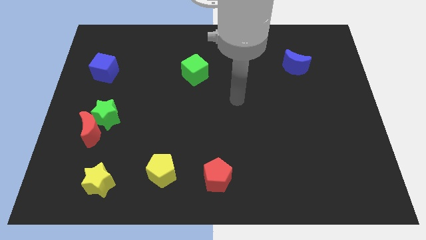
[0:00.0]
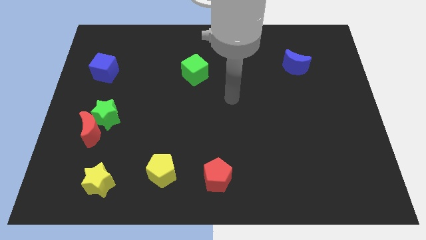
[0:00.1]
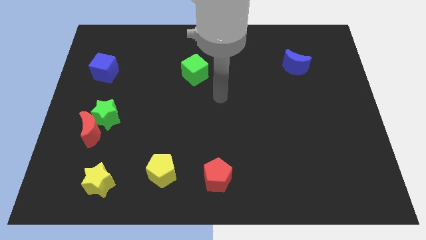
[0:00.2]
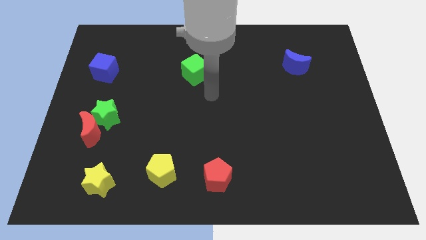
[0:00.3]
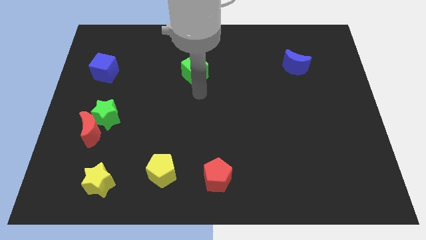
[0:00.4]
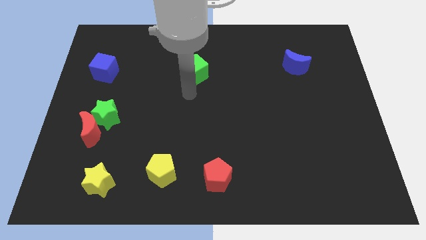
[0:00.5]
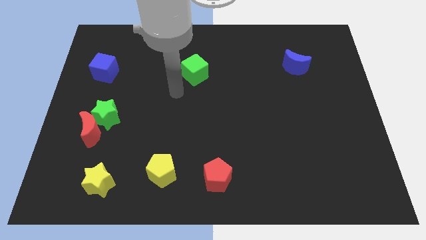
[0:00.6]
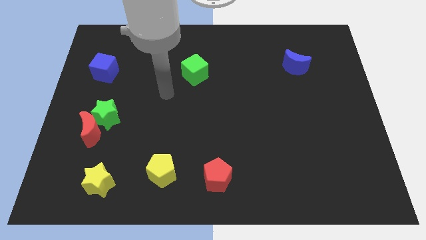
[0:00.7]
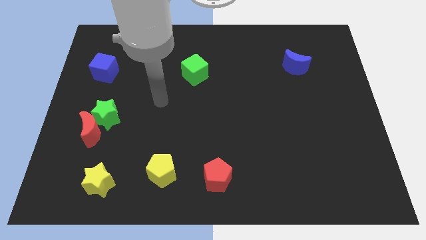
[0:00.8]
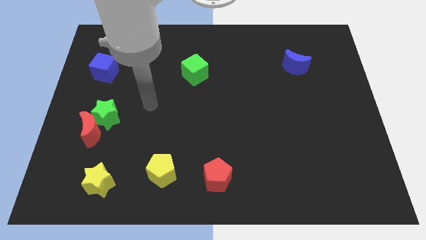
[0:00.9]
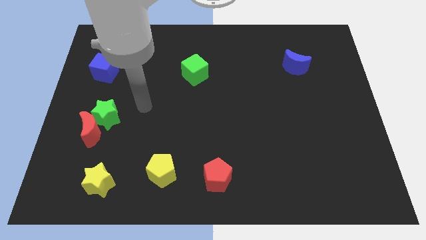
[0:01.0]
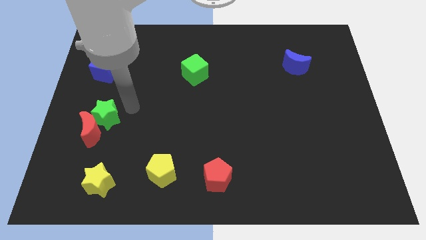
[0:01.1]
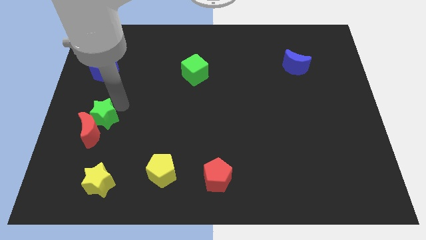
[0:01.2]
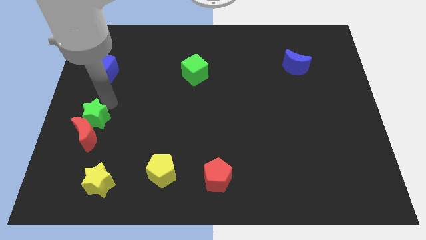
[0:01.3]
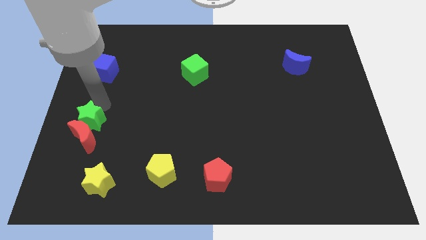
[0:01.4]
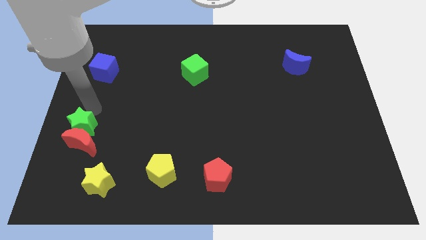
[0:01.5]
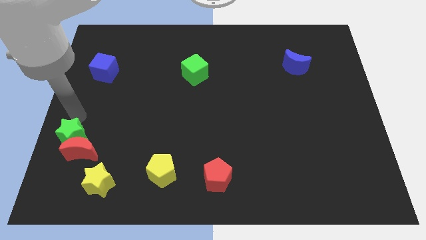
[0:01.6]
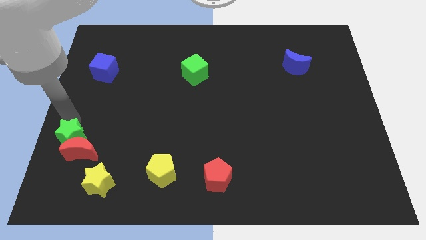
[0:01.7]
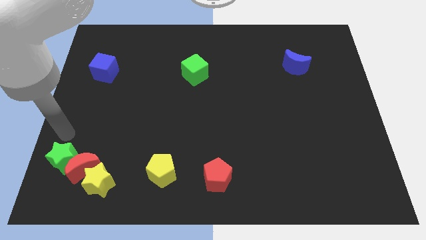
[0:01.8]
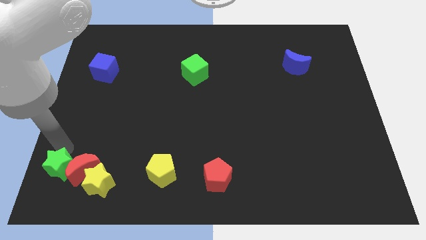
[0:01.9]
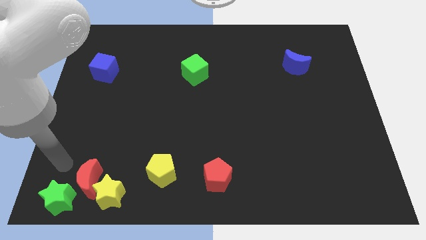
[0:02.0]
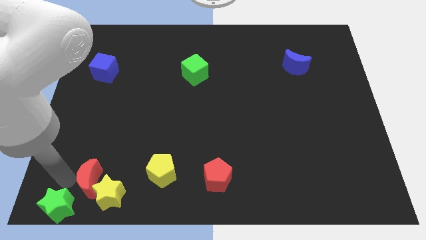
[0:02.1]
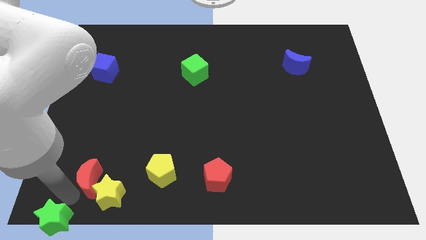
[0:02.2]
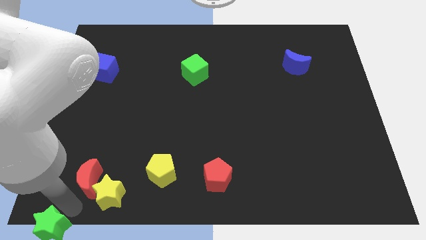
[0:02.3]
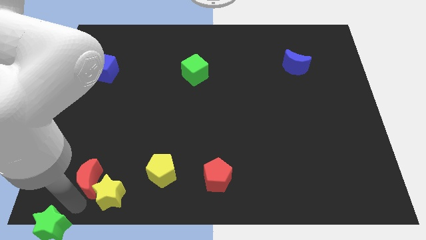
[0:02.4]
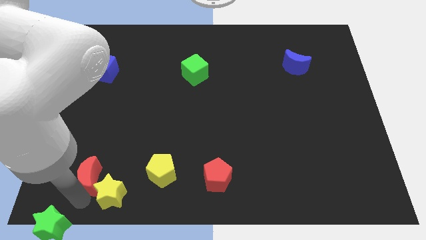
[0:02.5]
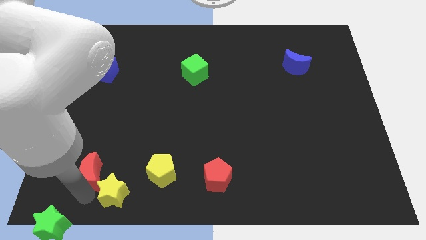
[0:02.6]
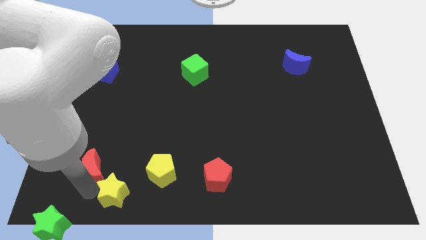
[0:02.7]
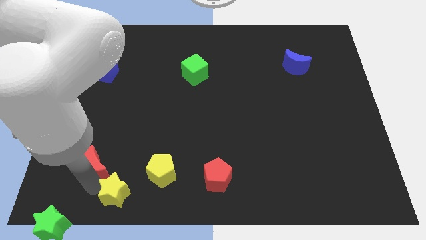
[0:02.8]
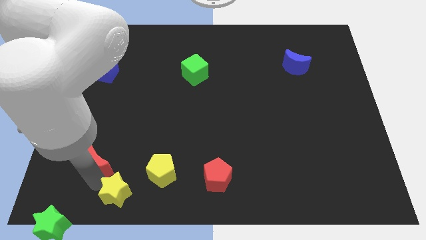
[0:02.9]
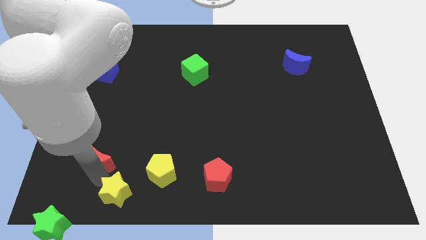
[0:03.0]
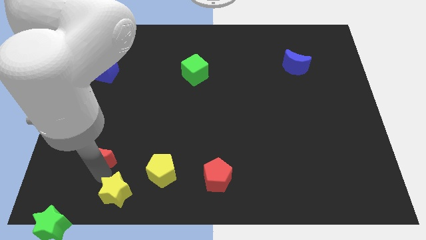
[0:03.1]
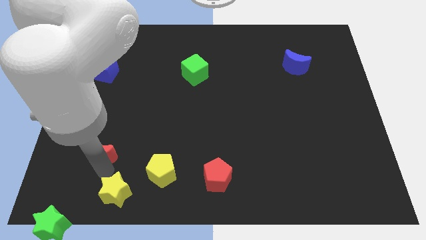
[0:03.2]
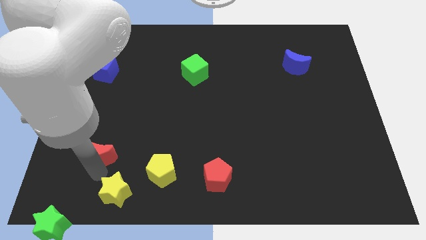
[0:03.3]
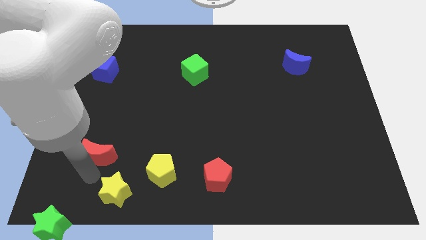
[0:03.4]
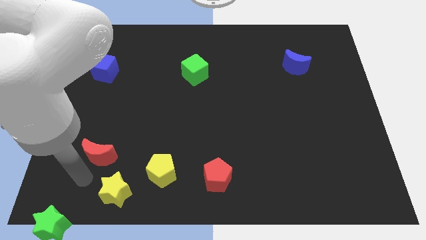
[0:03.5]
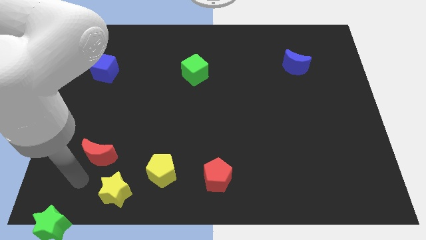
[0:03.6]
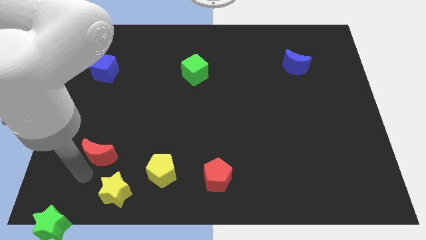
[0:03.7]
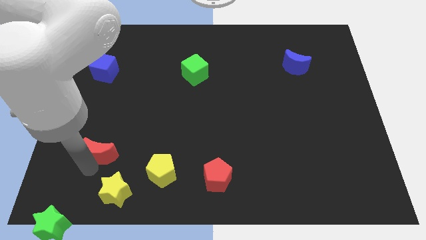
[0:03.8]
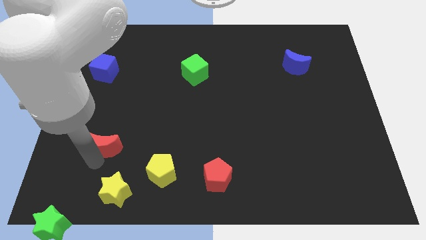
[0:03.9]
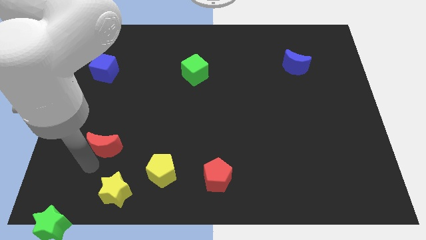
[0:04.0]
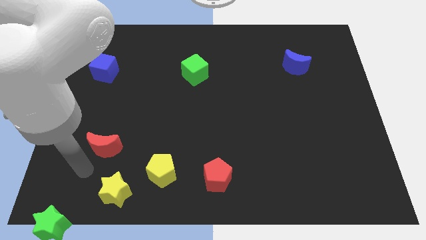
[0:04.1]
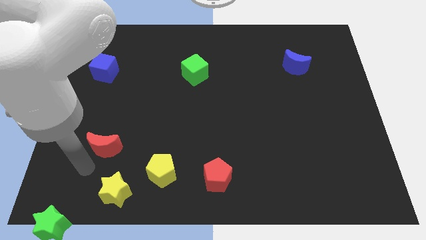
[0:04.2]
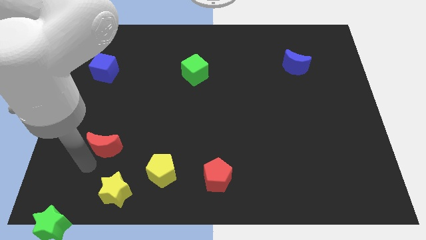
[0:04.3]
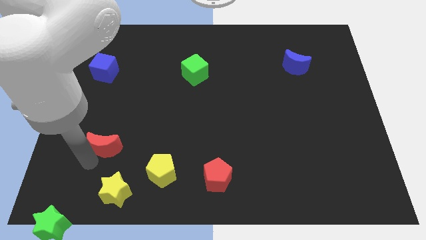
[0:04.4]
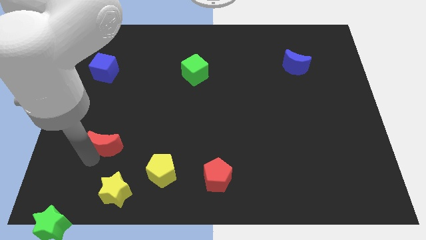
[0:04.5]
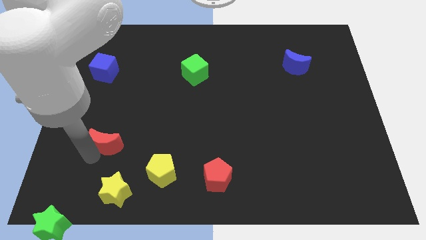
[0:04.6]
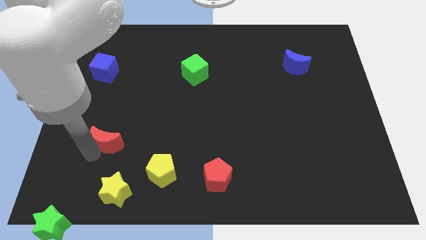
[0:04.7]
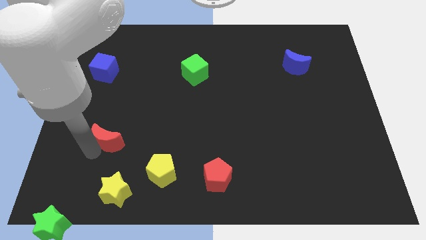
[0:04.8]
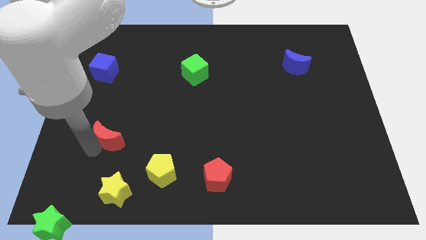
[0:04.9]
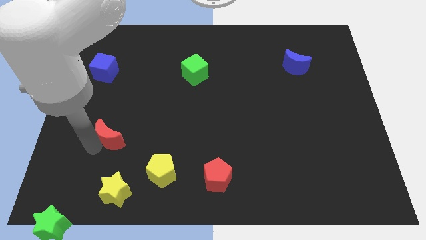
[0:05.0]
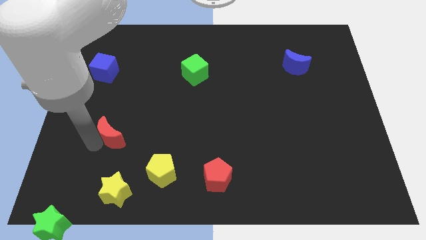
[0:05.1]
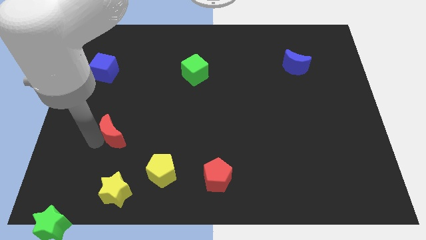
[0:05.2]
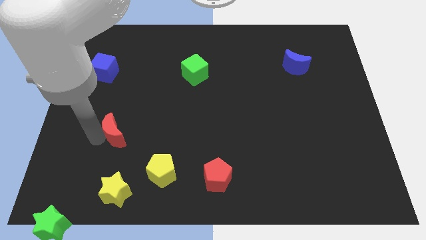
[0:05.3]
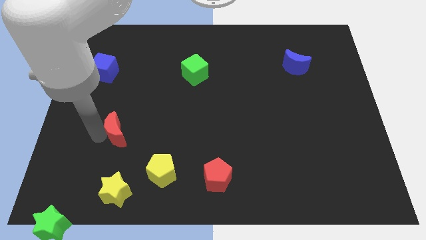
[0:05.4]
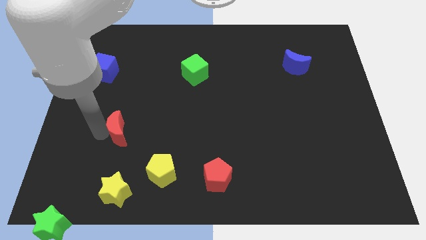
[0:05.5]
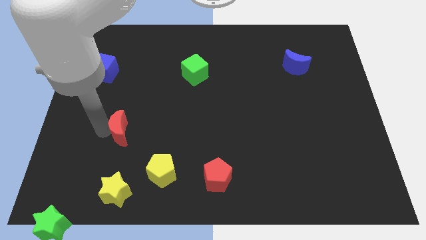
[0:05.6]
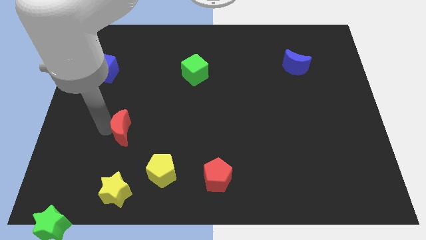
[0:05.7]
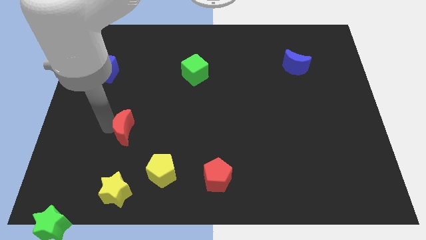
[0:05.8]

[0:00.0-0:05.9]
slide the red moon right a little

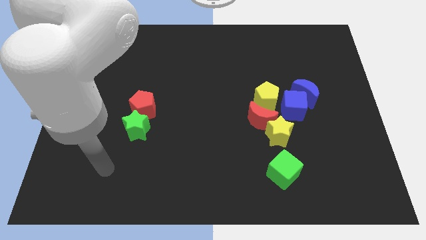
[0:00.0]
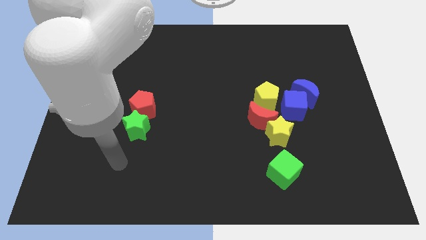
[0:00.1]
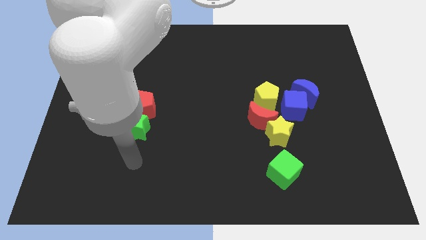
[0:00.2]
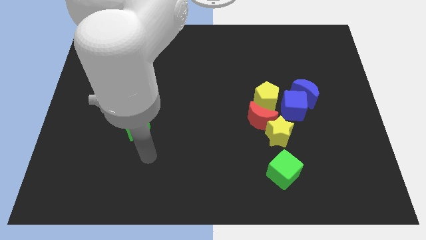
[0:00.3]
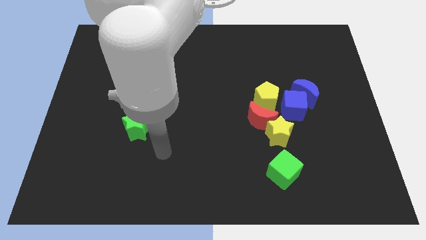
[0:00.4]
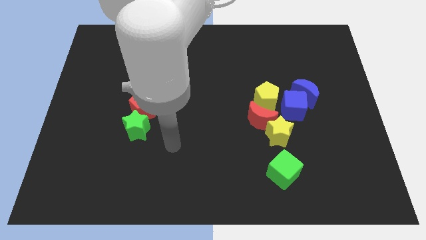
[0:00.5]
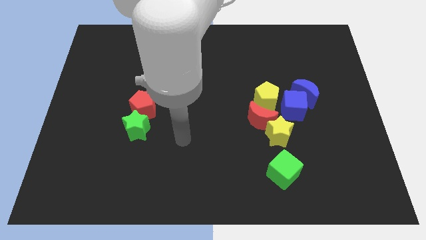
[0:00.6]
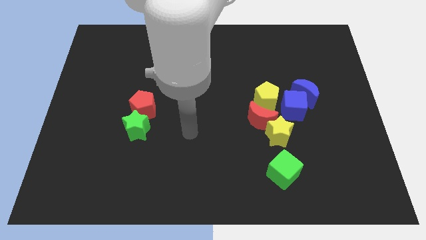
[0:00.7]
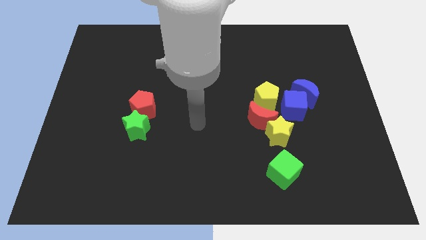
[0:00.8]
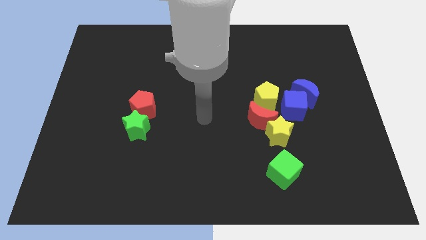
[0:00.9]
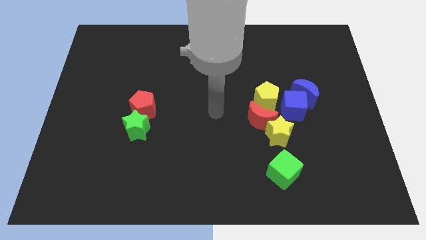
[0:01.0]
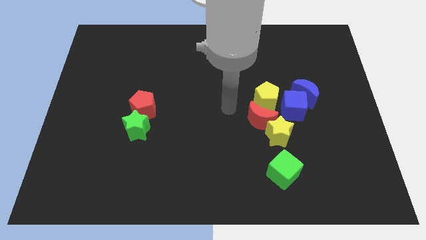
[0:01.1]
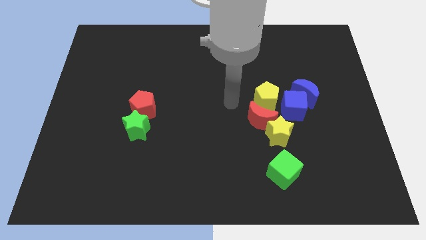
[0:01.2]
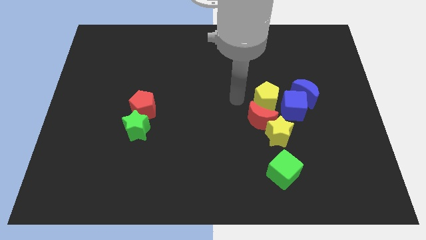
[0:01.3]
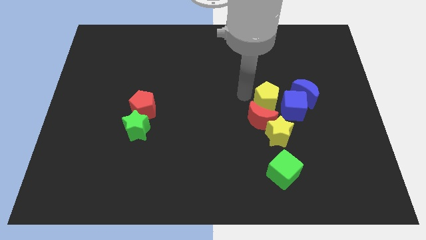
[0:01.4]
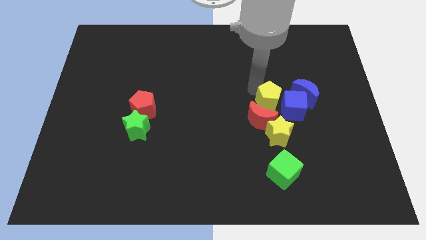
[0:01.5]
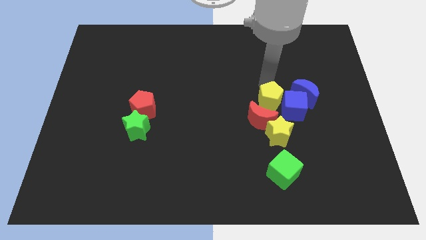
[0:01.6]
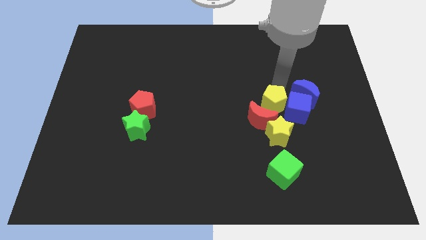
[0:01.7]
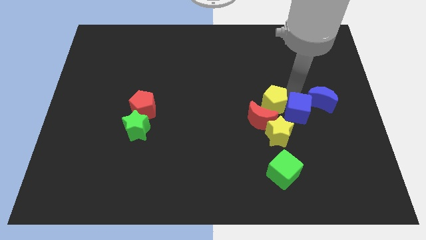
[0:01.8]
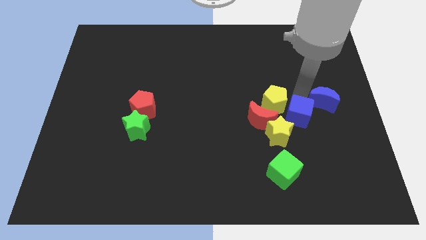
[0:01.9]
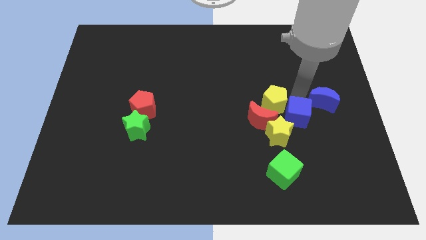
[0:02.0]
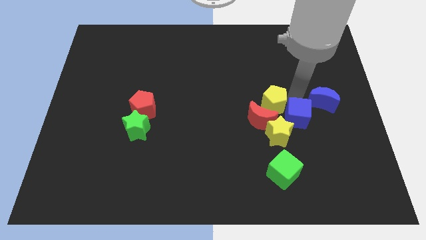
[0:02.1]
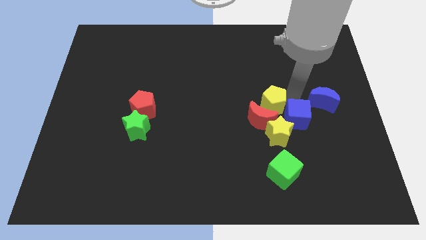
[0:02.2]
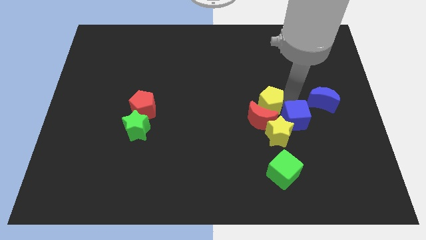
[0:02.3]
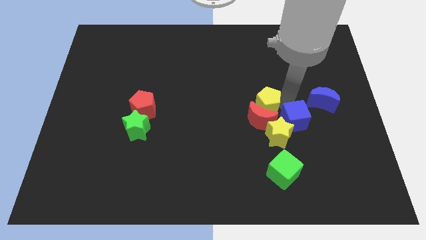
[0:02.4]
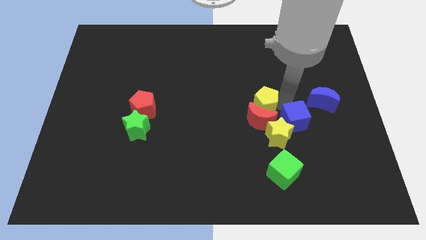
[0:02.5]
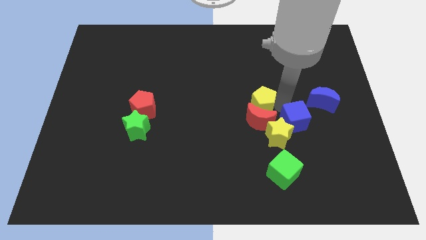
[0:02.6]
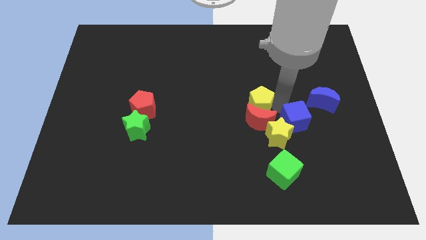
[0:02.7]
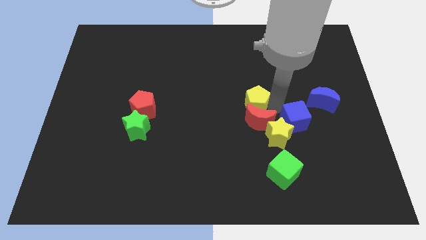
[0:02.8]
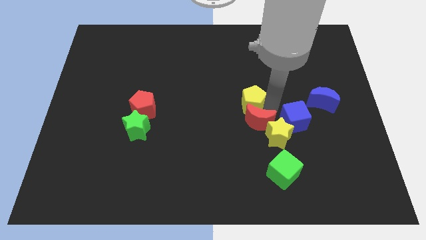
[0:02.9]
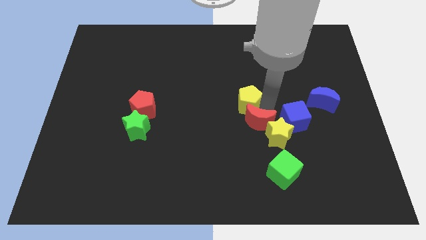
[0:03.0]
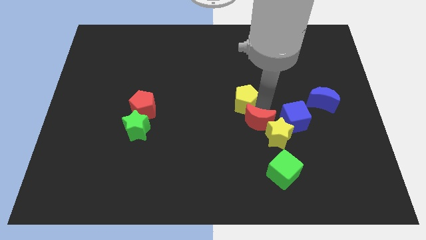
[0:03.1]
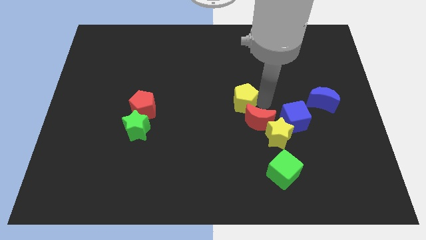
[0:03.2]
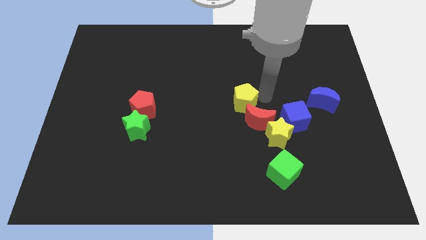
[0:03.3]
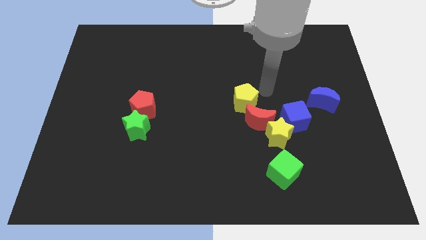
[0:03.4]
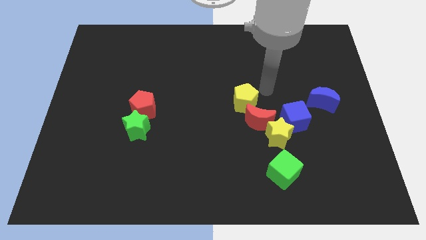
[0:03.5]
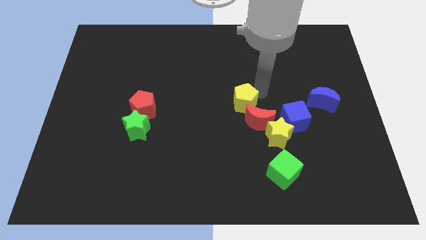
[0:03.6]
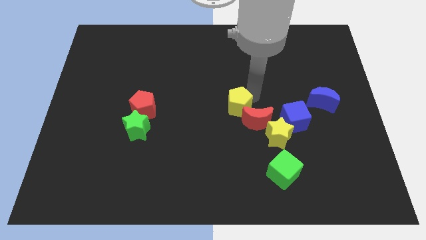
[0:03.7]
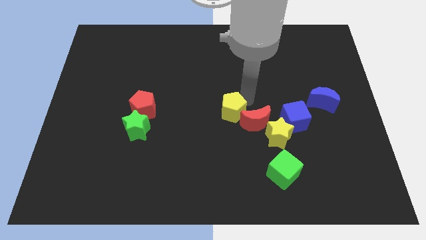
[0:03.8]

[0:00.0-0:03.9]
slightly move the yellow pentagon downwards and to the left diagonally
